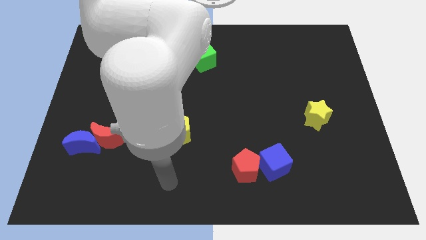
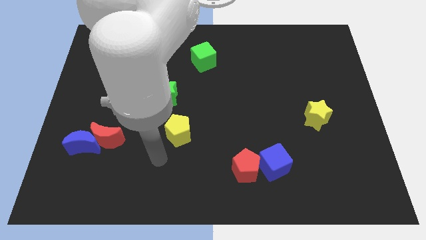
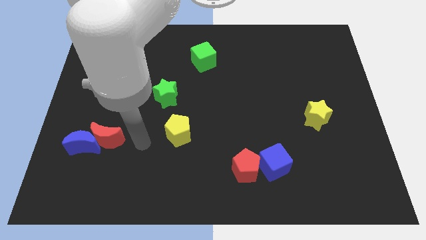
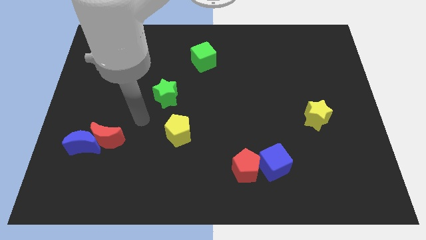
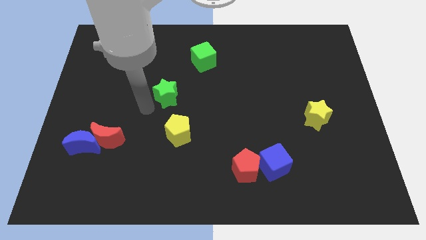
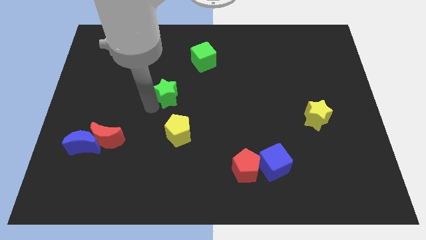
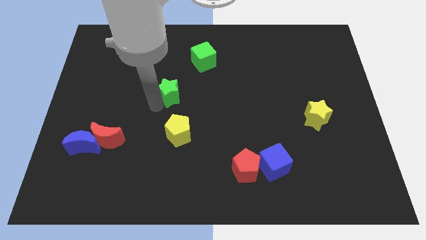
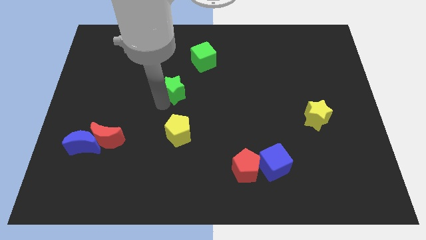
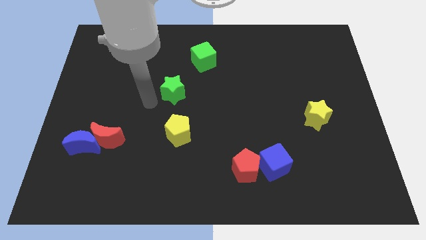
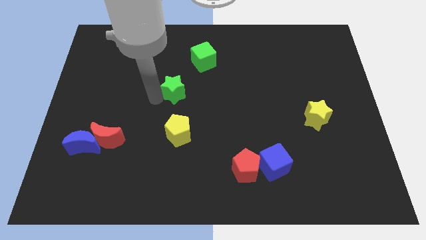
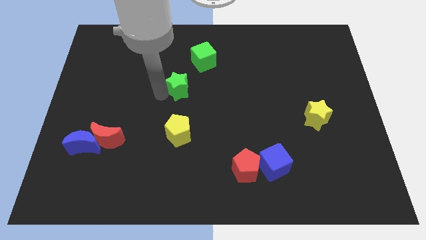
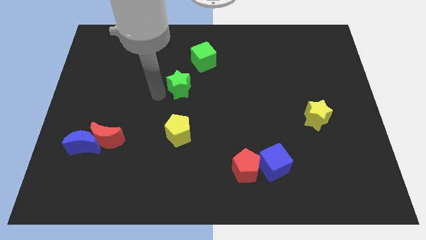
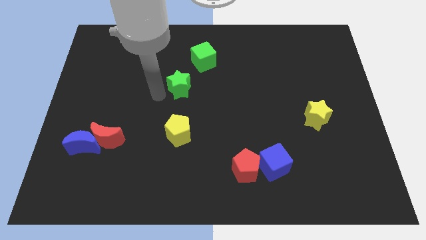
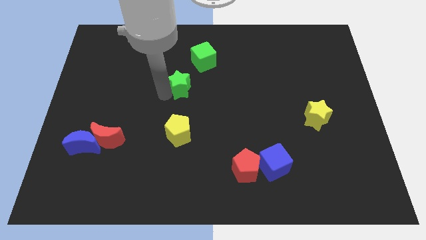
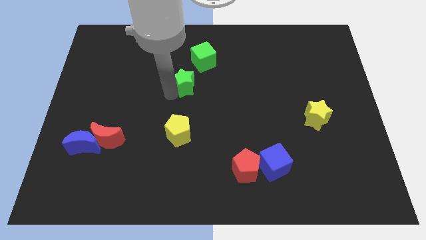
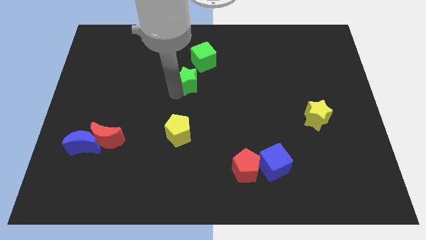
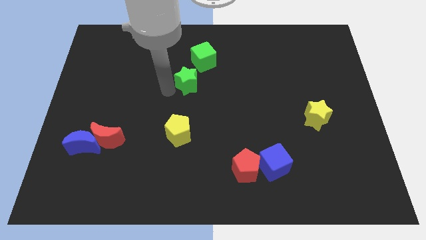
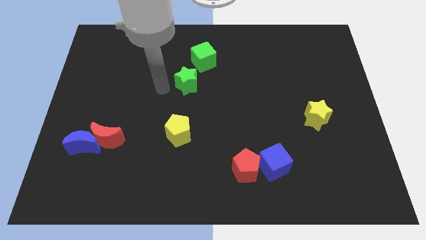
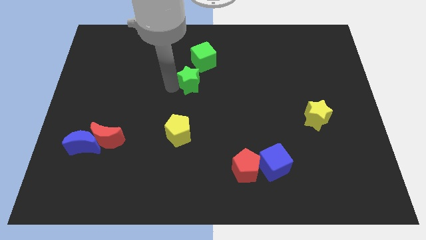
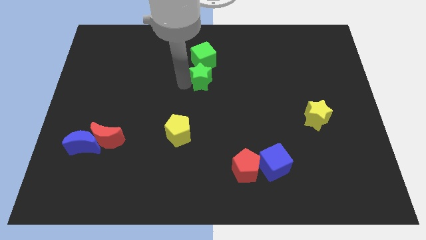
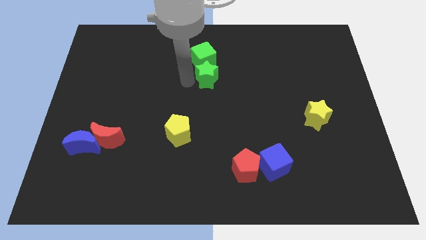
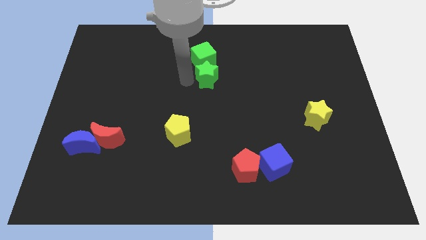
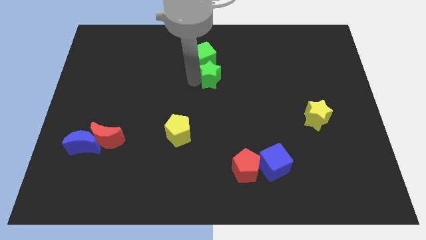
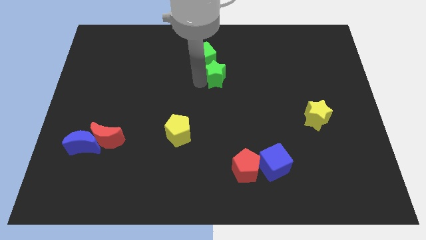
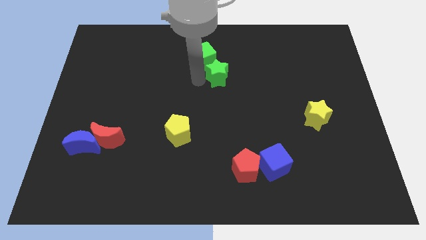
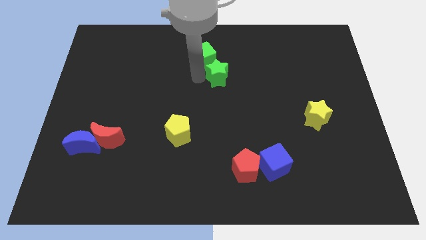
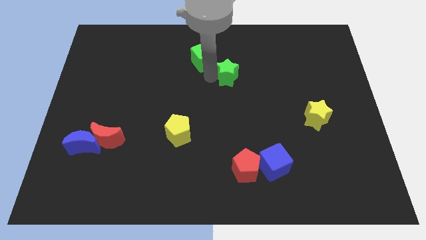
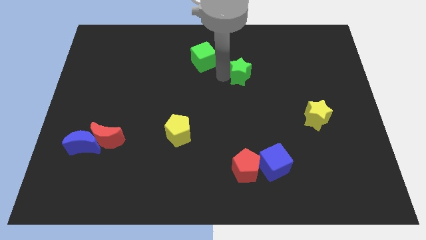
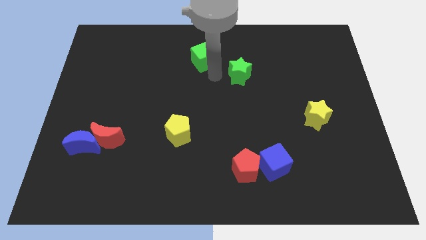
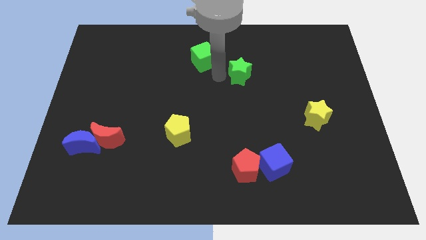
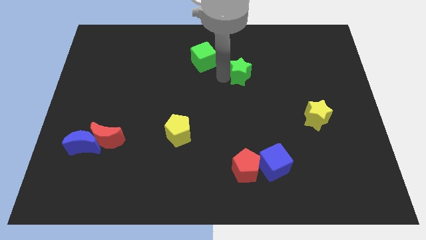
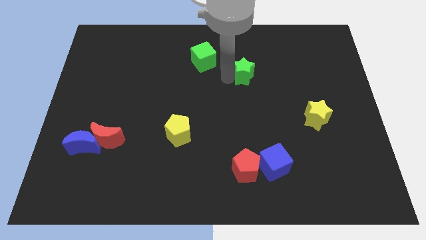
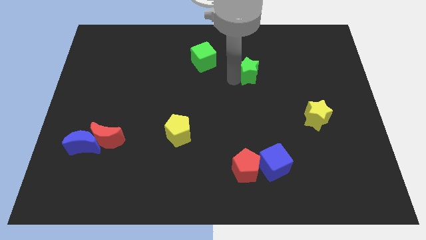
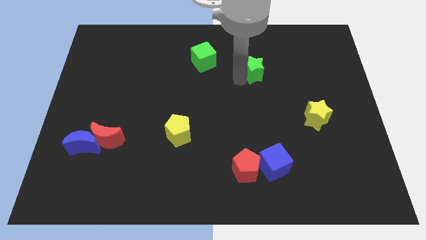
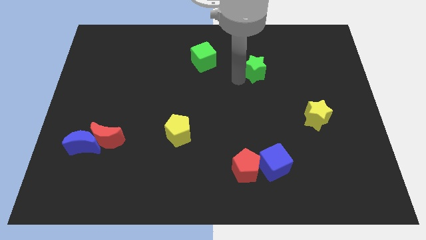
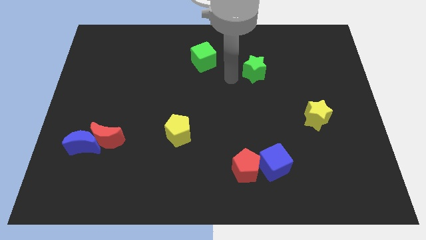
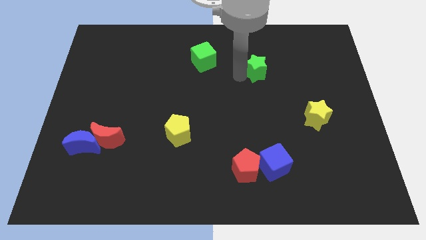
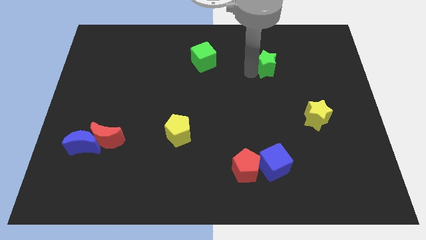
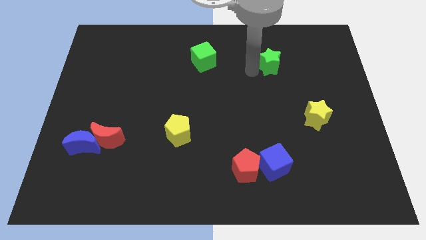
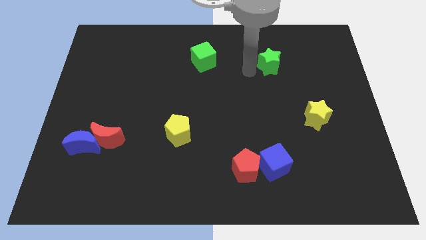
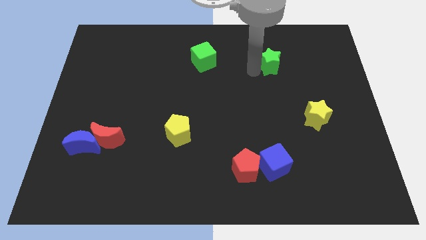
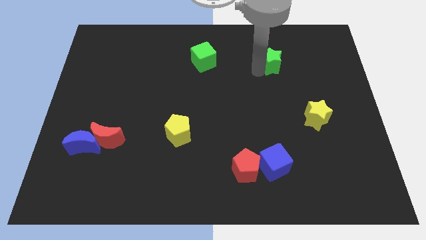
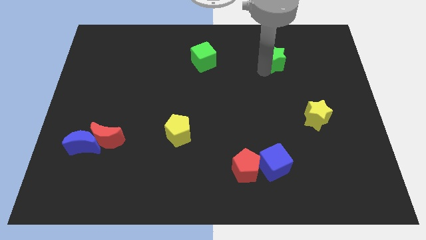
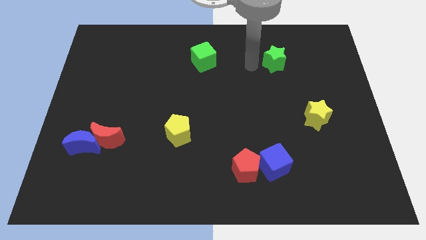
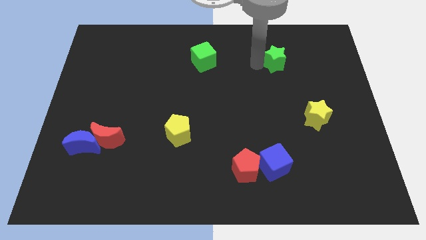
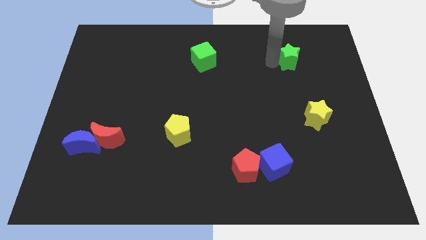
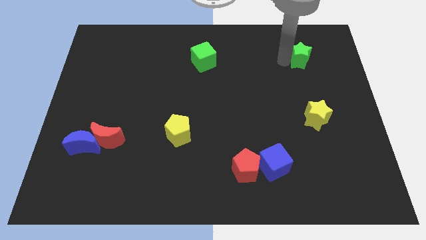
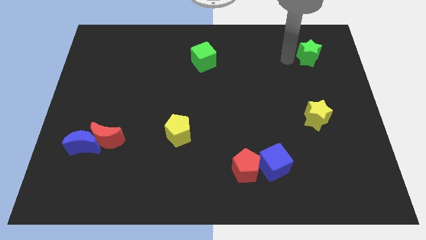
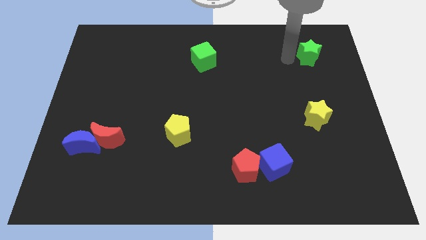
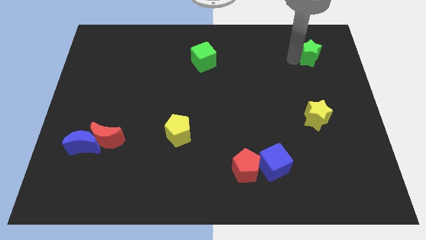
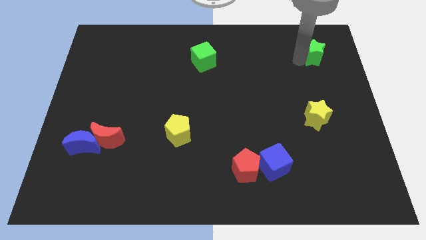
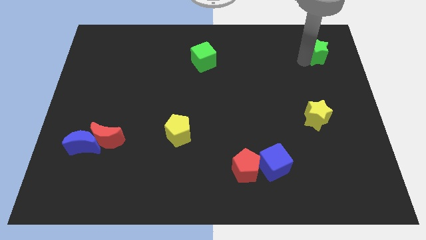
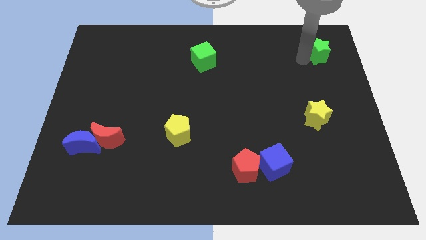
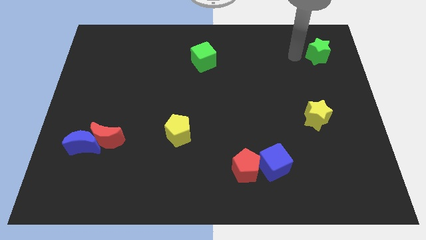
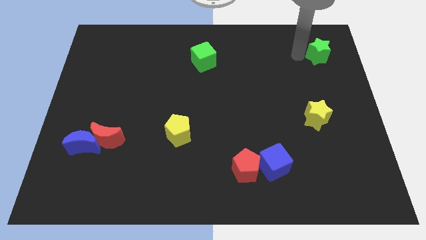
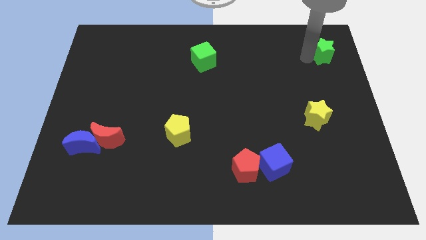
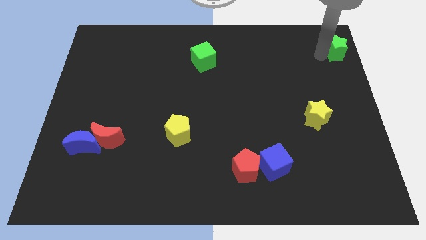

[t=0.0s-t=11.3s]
push the green star to the top right

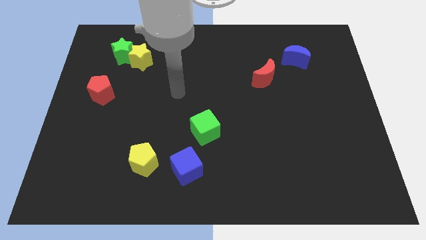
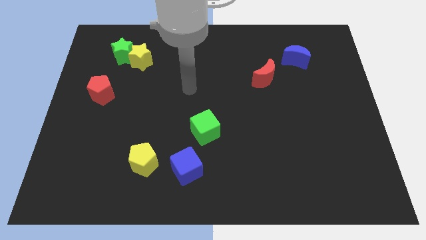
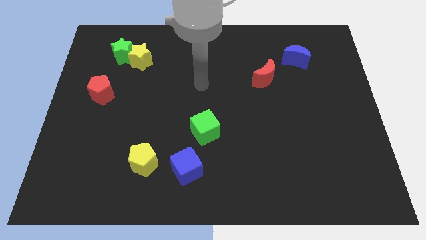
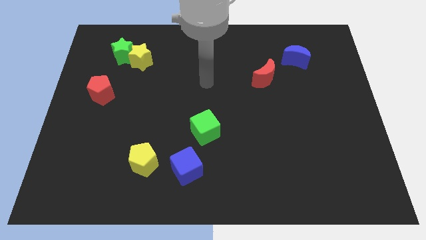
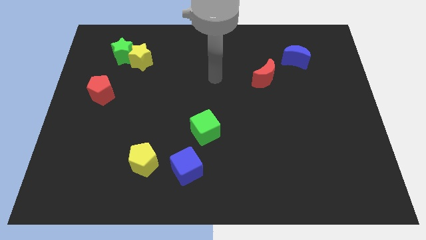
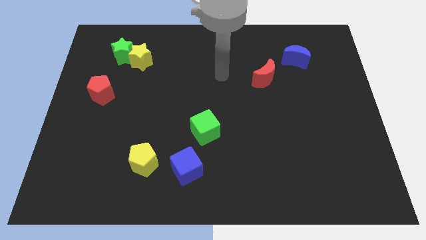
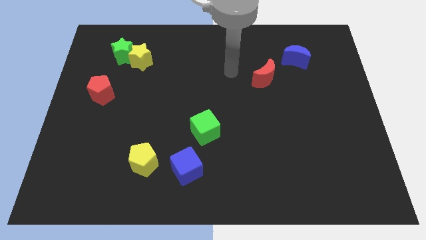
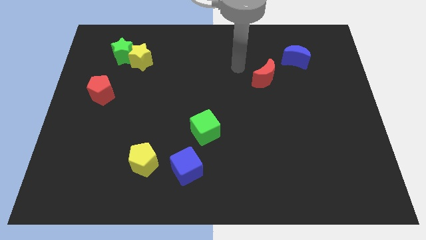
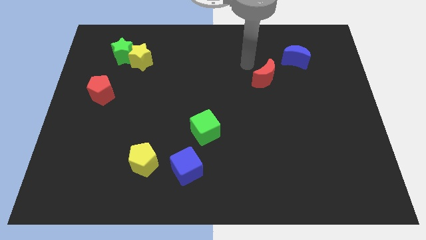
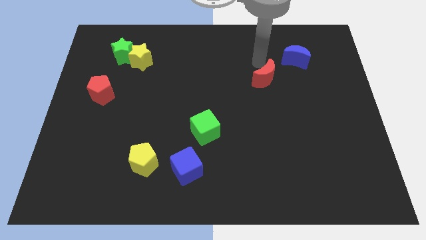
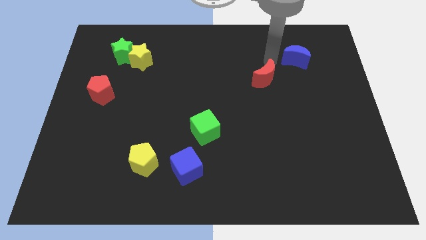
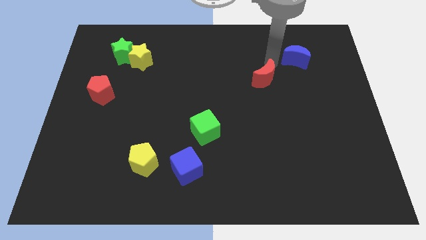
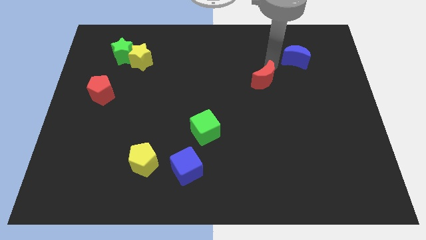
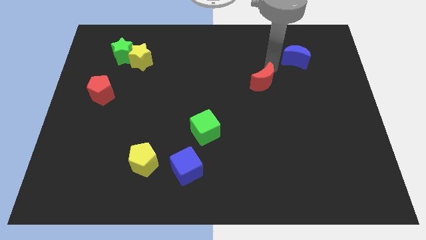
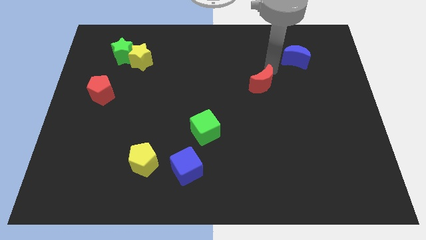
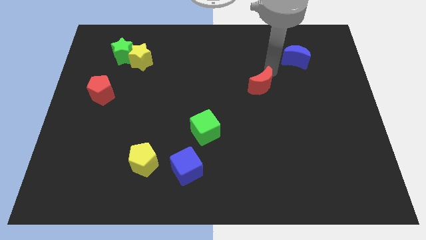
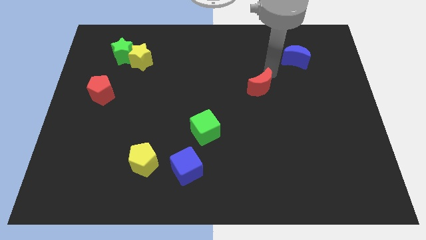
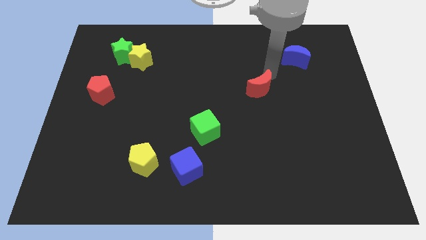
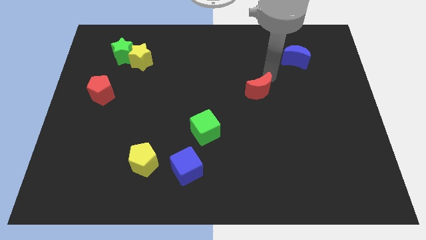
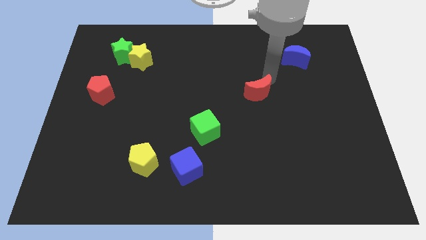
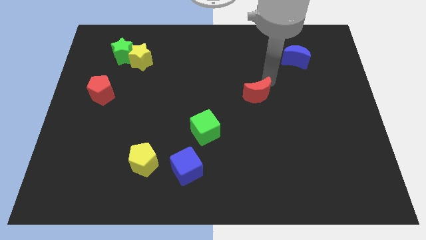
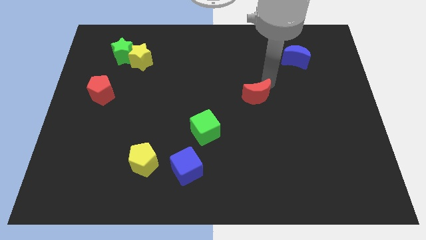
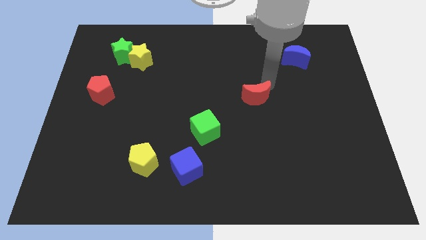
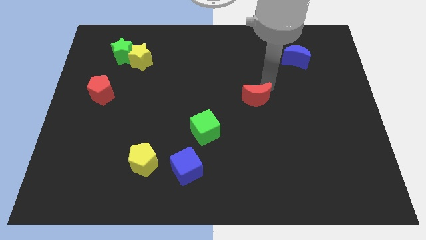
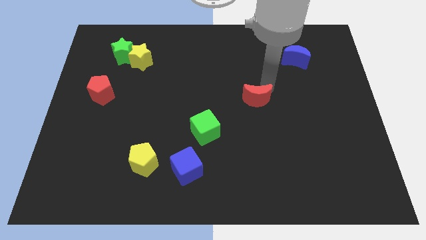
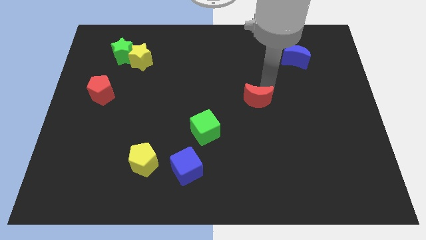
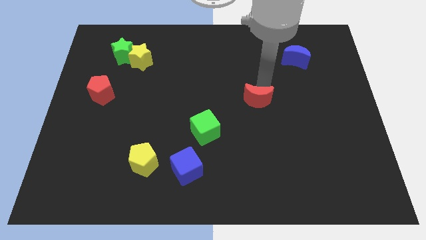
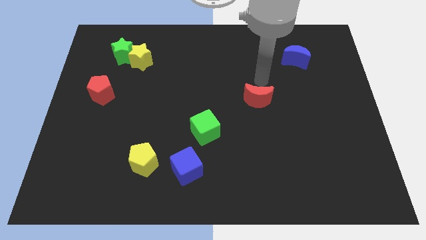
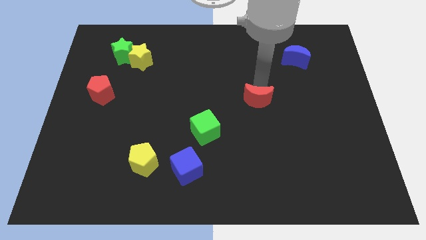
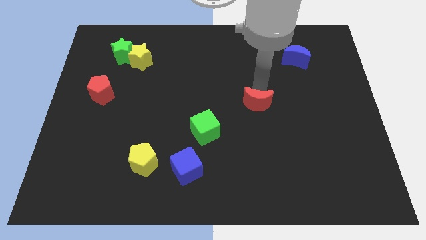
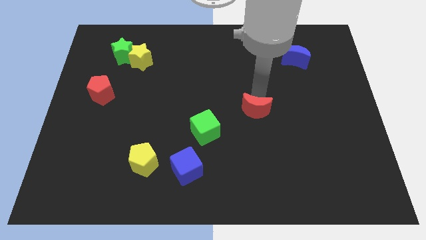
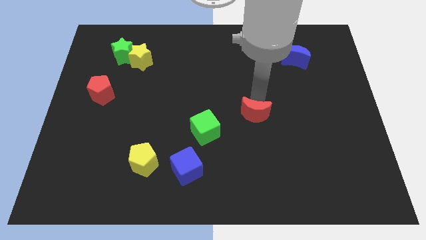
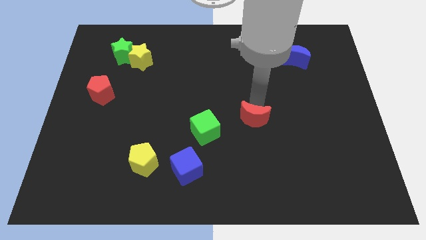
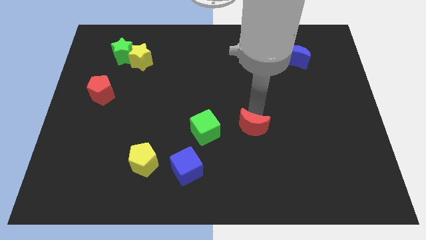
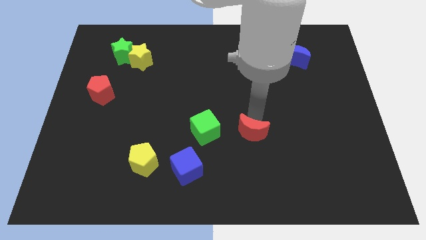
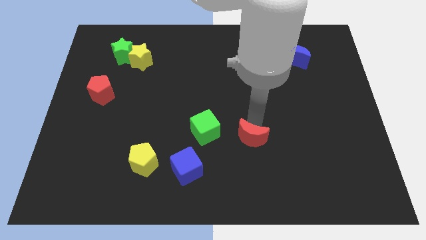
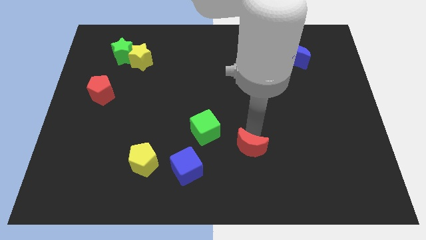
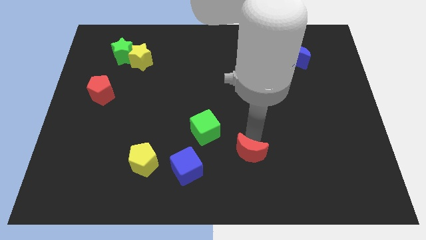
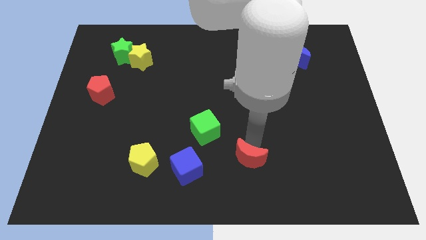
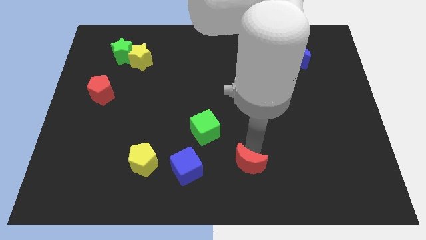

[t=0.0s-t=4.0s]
slide the red moon to the bottom
